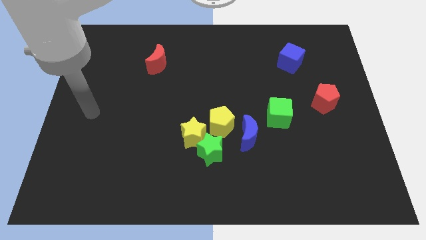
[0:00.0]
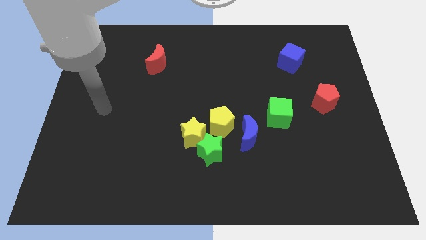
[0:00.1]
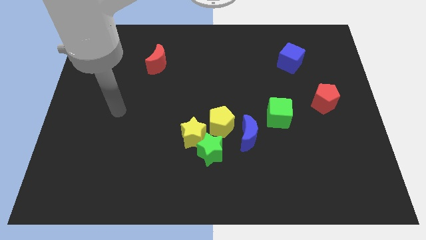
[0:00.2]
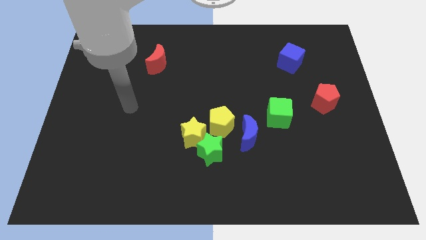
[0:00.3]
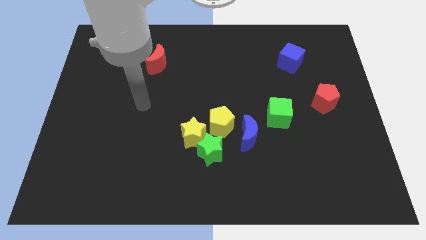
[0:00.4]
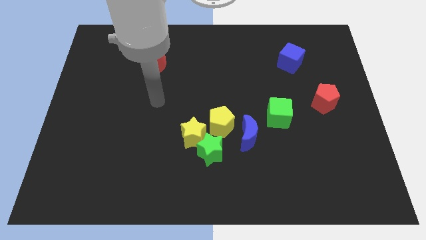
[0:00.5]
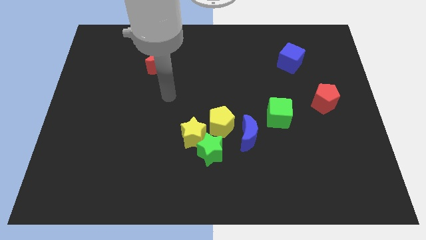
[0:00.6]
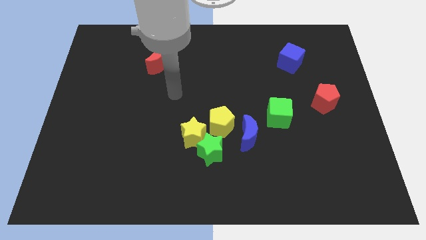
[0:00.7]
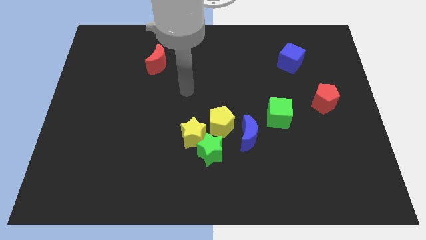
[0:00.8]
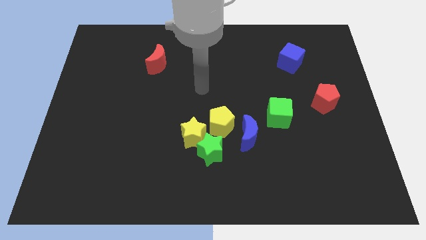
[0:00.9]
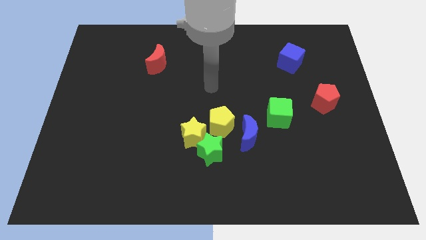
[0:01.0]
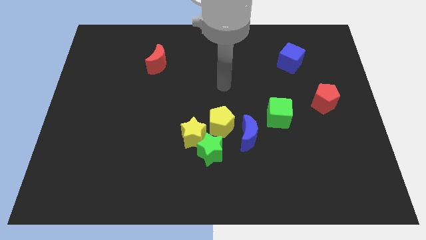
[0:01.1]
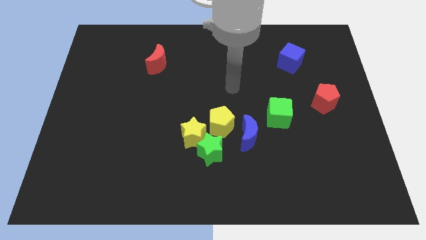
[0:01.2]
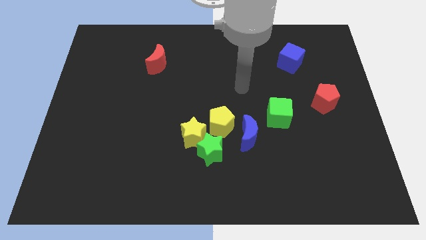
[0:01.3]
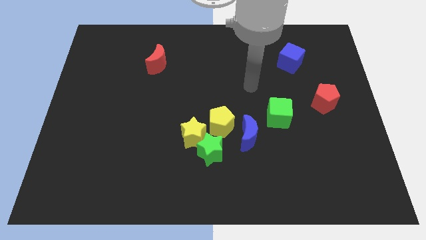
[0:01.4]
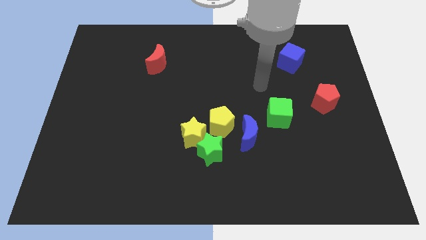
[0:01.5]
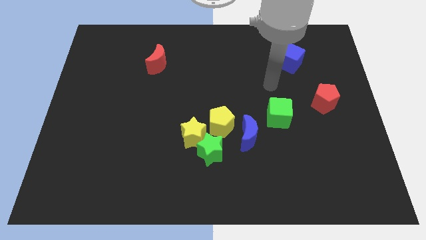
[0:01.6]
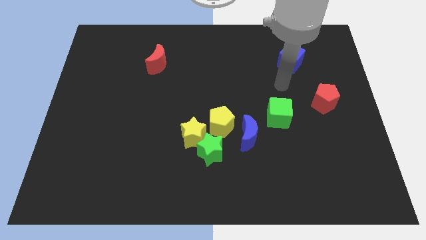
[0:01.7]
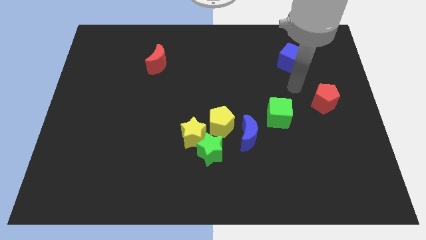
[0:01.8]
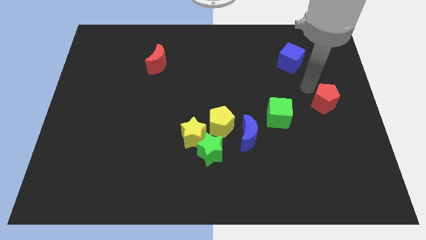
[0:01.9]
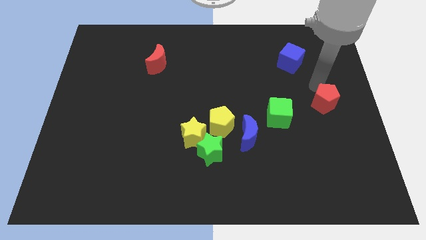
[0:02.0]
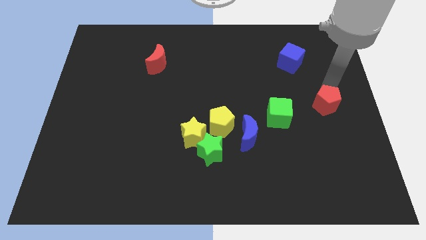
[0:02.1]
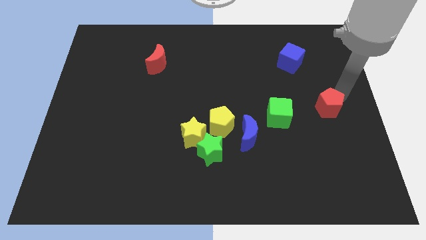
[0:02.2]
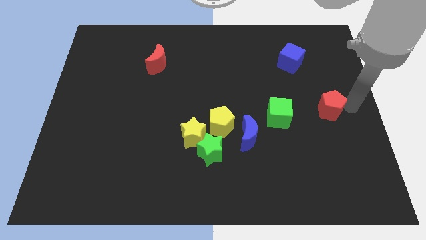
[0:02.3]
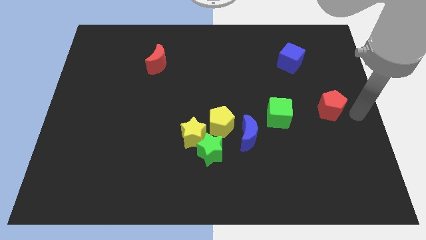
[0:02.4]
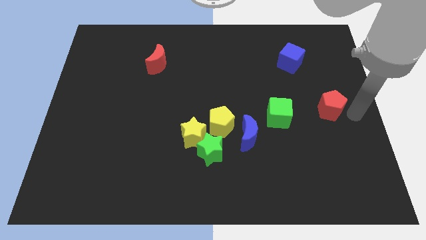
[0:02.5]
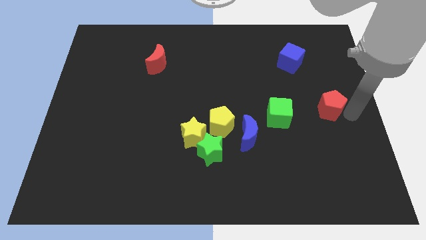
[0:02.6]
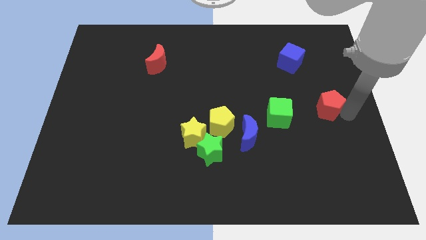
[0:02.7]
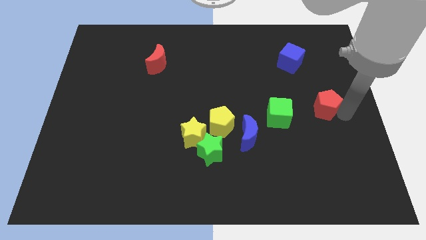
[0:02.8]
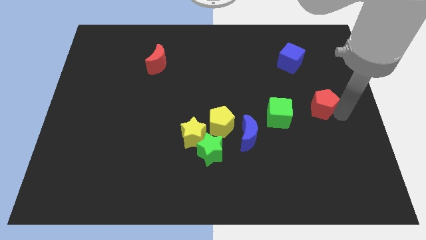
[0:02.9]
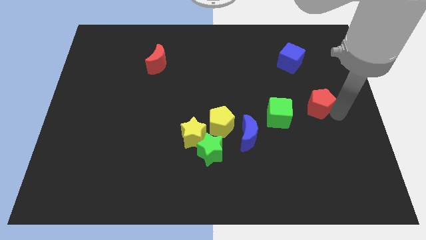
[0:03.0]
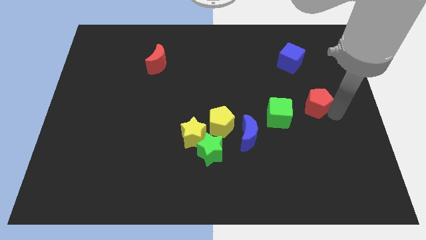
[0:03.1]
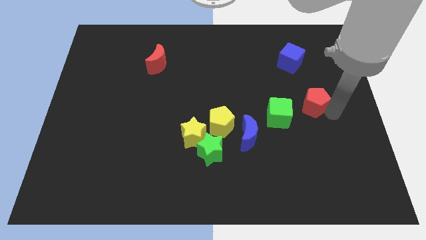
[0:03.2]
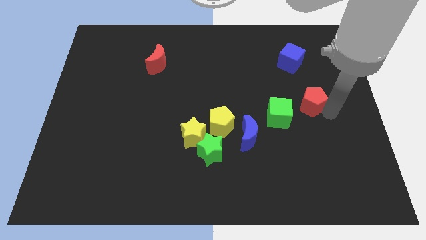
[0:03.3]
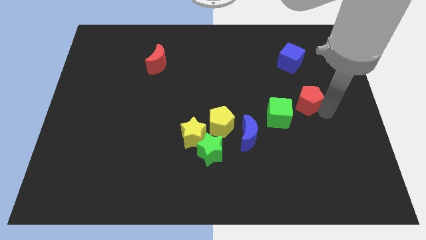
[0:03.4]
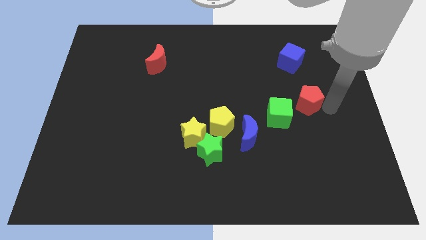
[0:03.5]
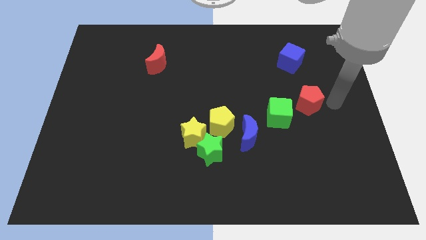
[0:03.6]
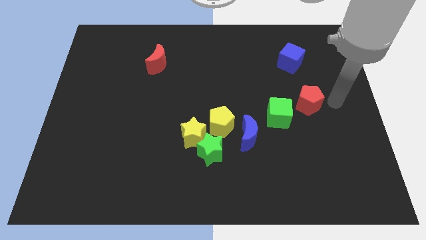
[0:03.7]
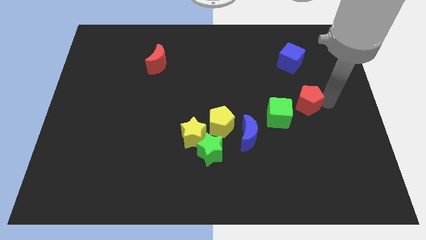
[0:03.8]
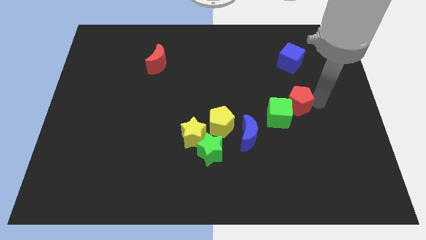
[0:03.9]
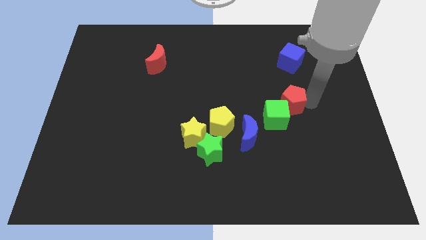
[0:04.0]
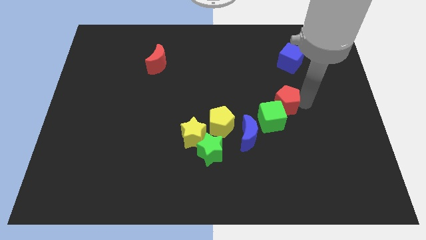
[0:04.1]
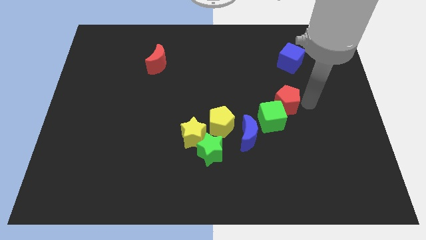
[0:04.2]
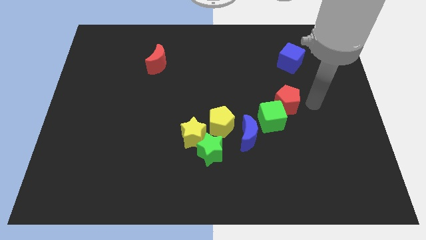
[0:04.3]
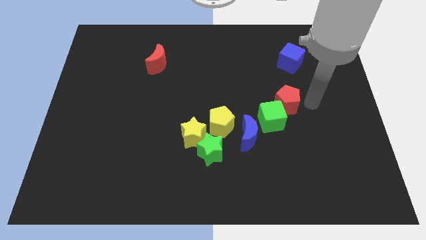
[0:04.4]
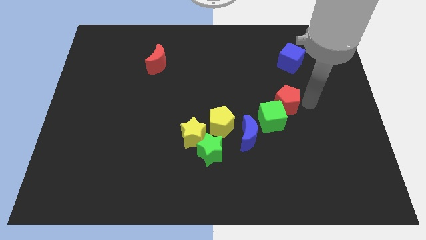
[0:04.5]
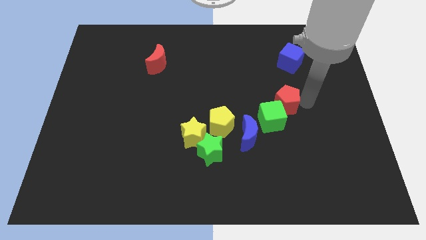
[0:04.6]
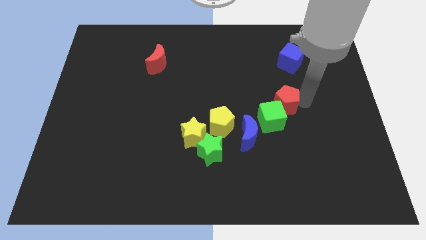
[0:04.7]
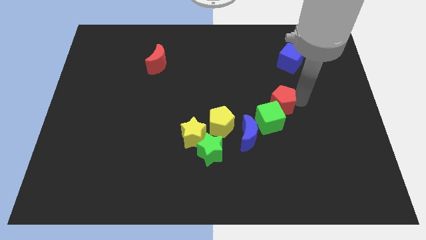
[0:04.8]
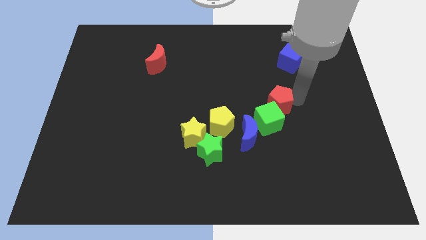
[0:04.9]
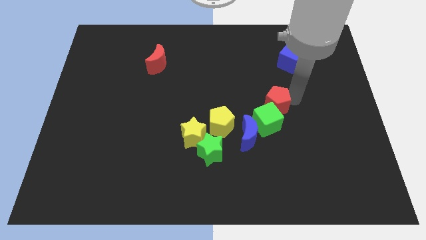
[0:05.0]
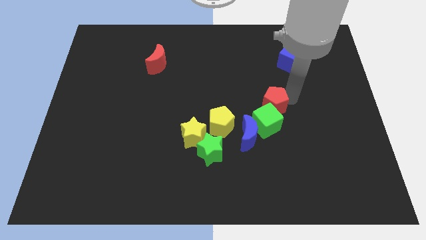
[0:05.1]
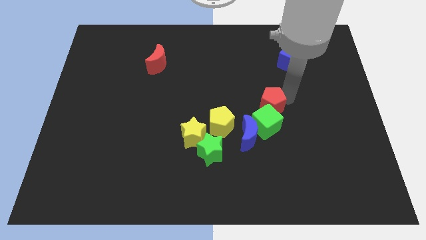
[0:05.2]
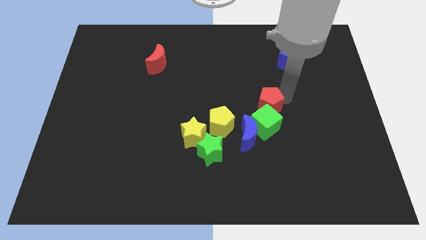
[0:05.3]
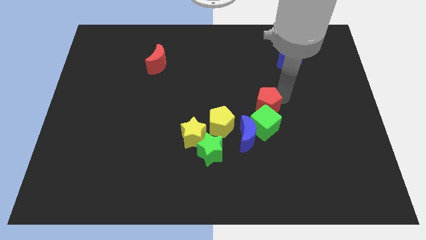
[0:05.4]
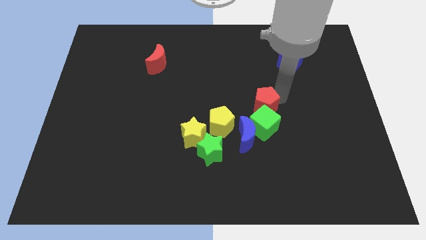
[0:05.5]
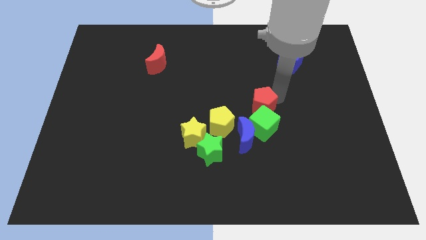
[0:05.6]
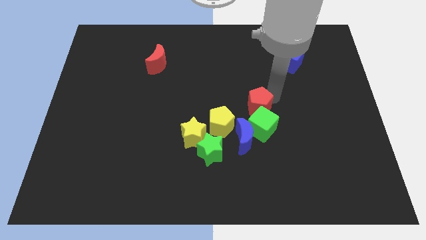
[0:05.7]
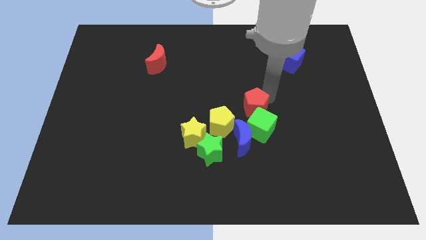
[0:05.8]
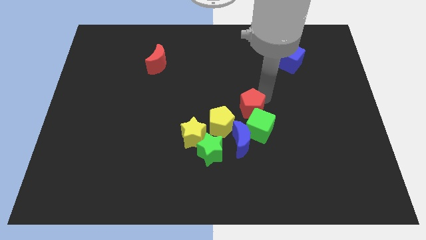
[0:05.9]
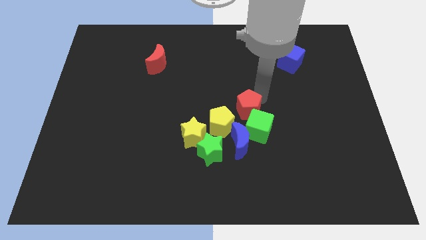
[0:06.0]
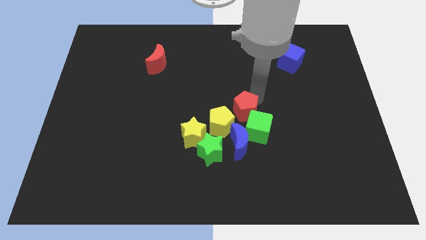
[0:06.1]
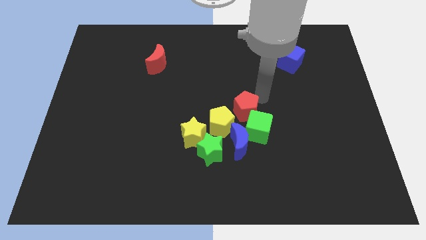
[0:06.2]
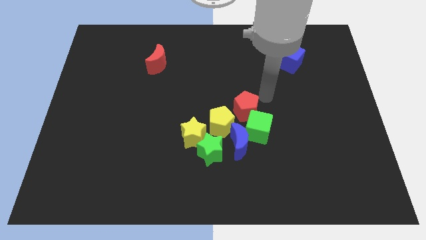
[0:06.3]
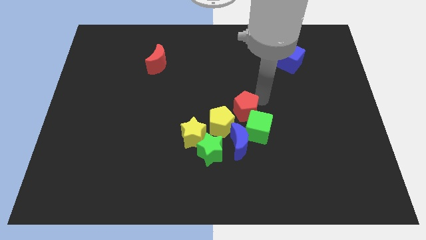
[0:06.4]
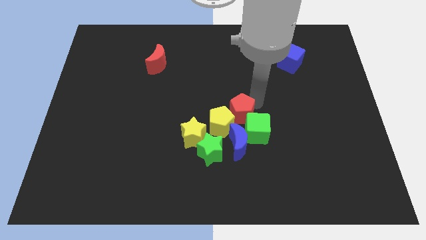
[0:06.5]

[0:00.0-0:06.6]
slide the red pentagon towards the yellow pentagon

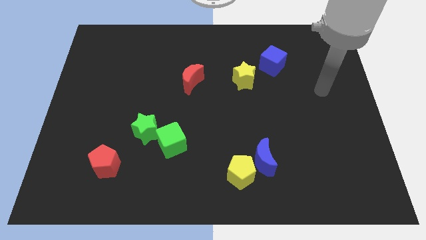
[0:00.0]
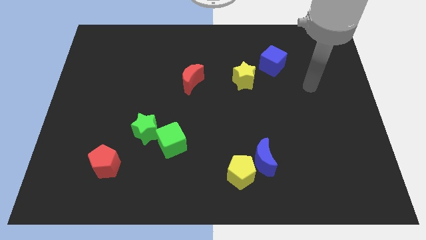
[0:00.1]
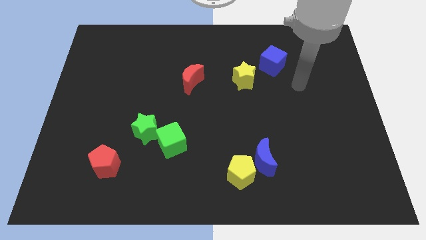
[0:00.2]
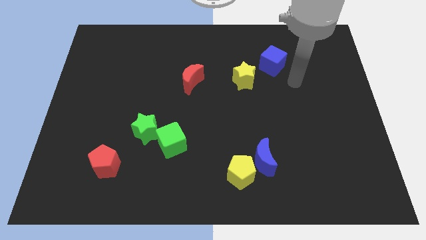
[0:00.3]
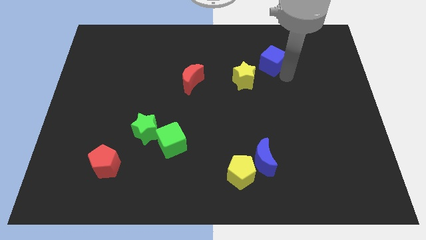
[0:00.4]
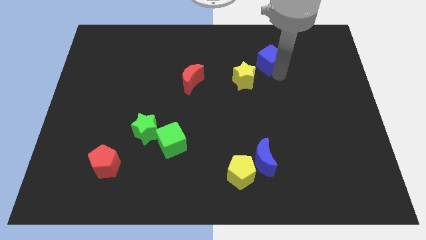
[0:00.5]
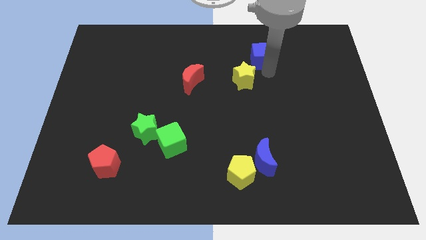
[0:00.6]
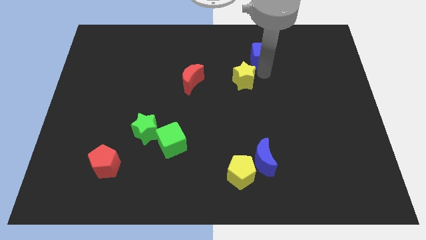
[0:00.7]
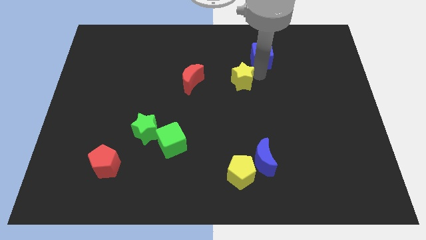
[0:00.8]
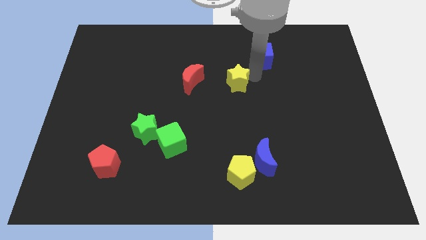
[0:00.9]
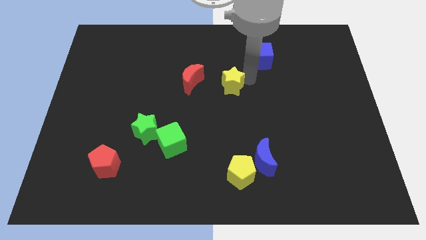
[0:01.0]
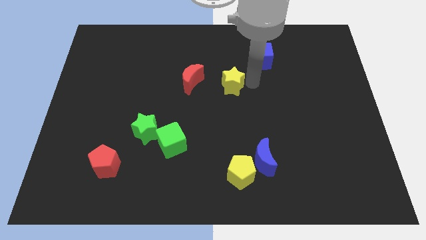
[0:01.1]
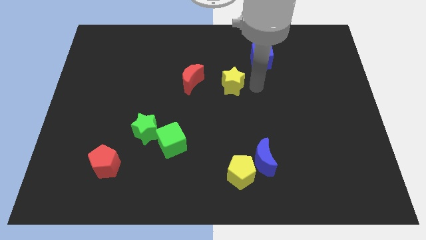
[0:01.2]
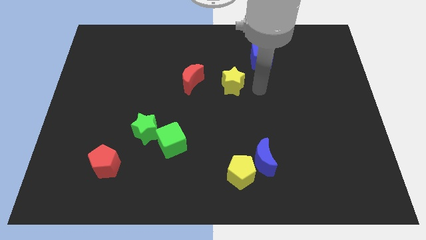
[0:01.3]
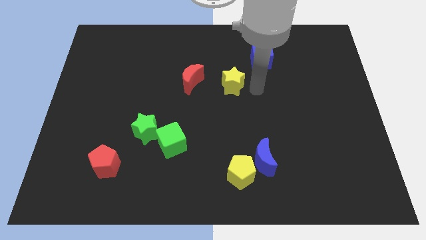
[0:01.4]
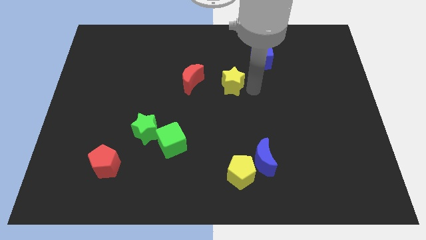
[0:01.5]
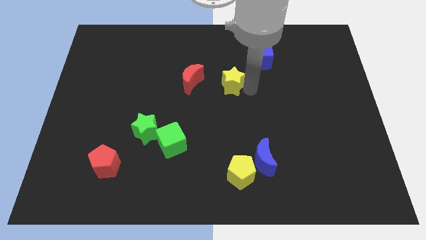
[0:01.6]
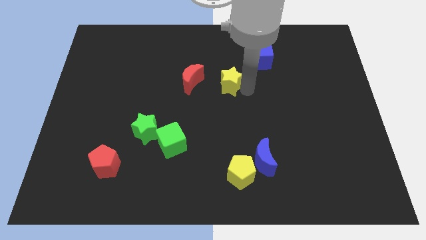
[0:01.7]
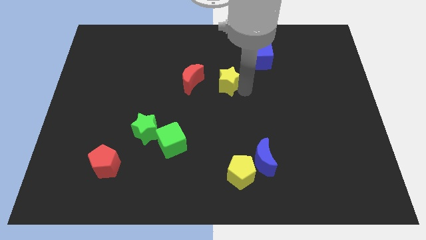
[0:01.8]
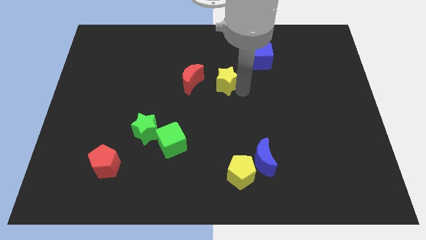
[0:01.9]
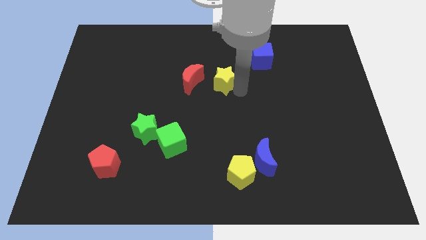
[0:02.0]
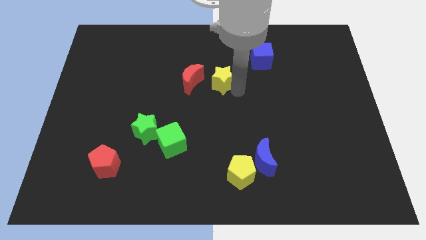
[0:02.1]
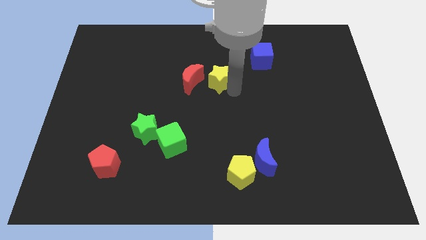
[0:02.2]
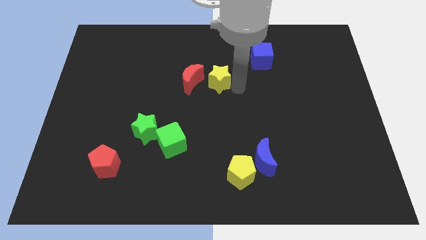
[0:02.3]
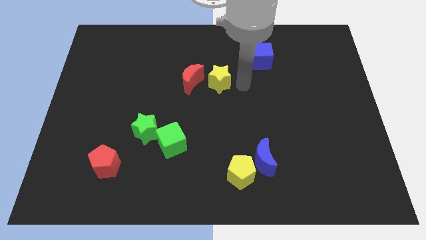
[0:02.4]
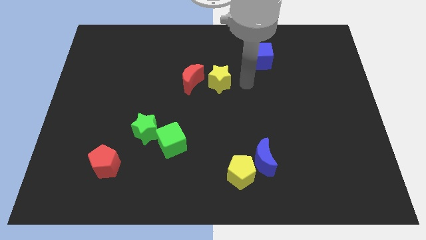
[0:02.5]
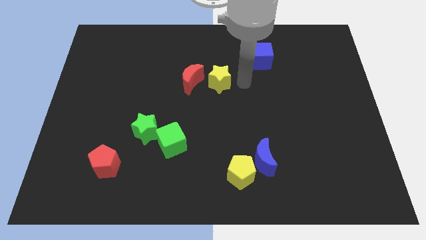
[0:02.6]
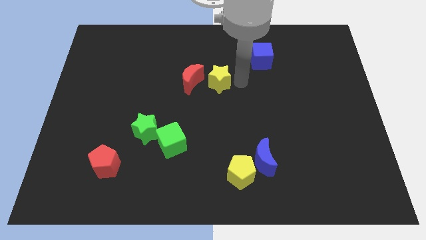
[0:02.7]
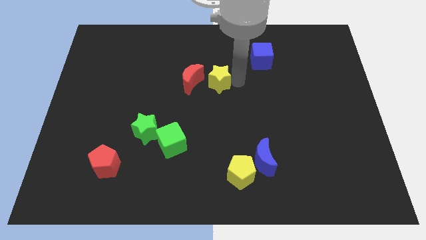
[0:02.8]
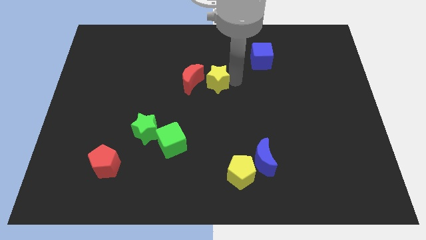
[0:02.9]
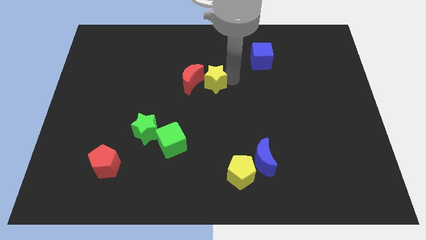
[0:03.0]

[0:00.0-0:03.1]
move the yellow star close to the red moon
